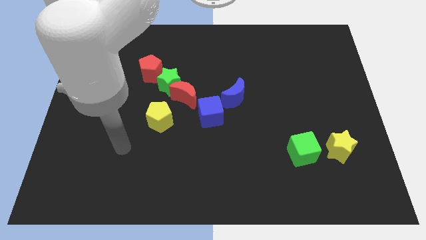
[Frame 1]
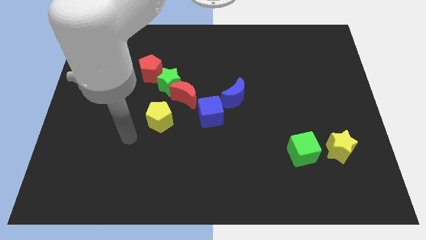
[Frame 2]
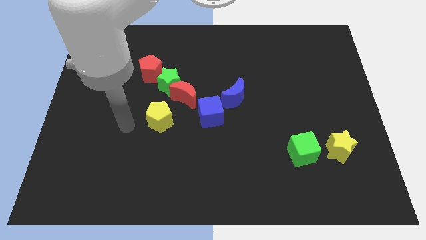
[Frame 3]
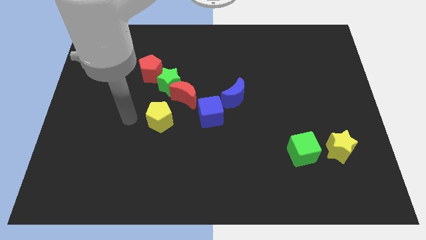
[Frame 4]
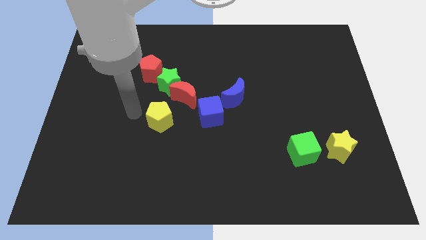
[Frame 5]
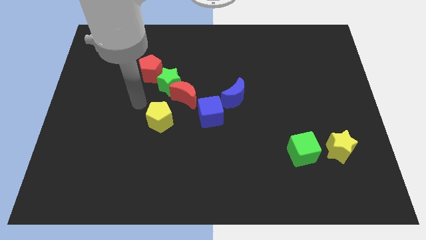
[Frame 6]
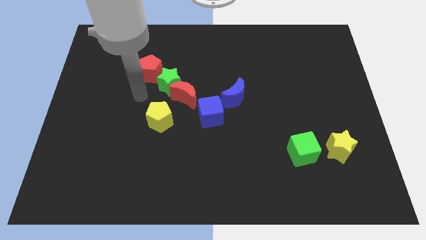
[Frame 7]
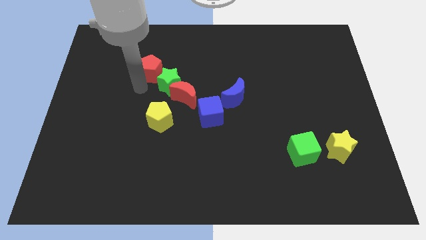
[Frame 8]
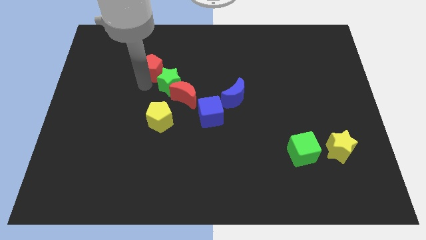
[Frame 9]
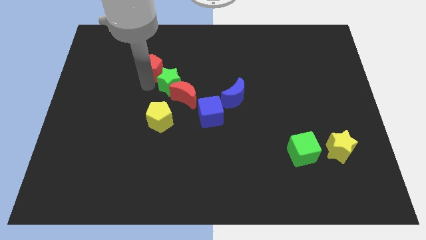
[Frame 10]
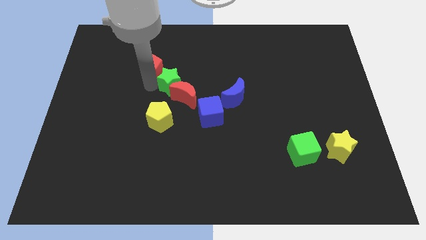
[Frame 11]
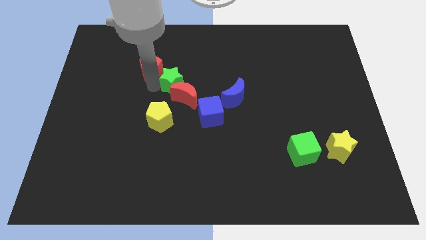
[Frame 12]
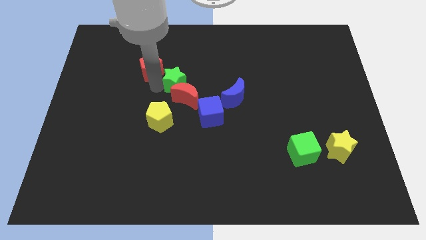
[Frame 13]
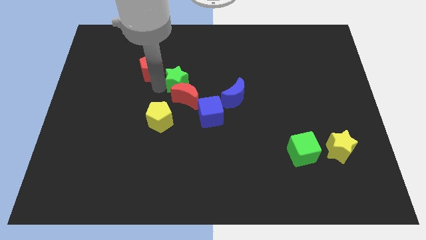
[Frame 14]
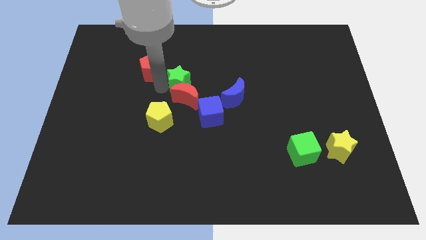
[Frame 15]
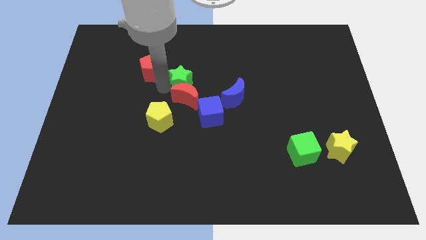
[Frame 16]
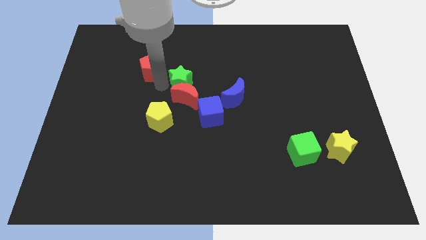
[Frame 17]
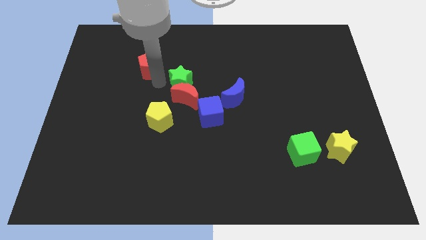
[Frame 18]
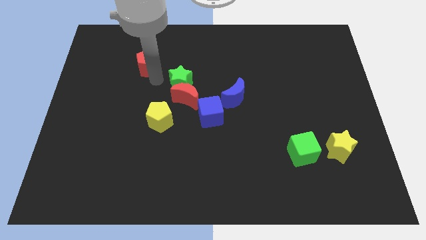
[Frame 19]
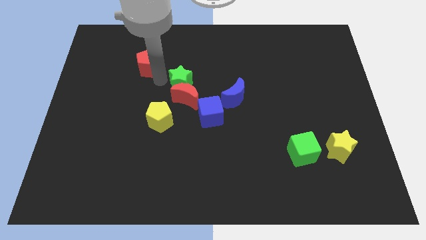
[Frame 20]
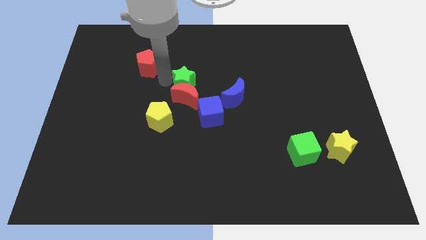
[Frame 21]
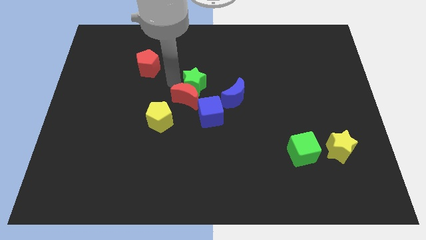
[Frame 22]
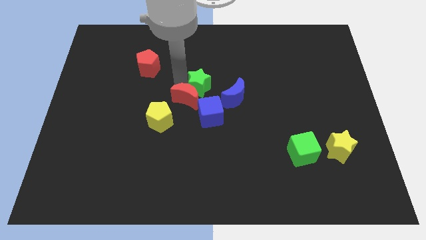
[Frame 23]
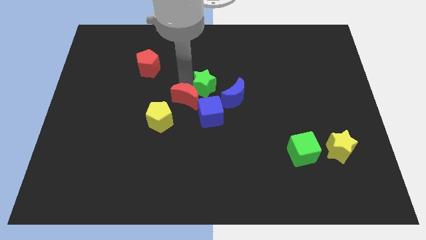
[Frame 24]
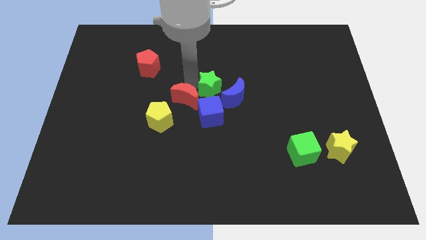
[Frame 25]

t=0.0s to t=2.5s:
pull the green star apart from the red moon and red pentagon

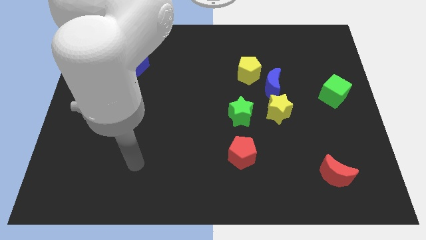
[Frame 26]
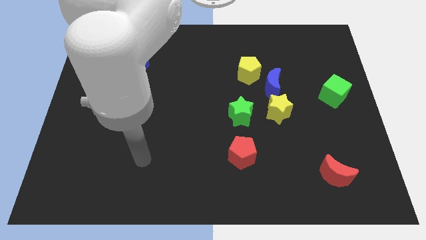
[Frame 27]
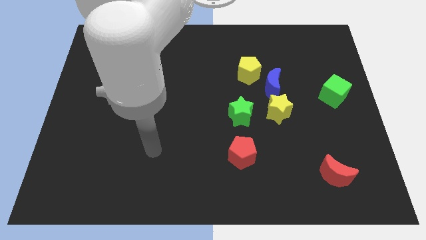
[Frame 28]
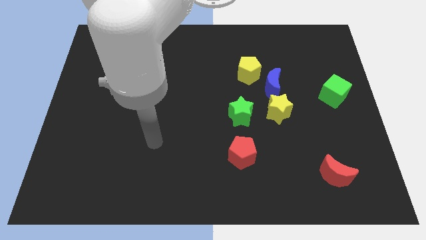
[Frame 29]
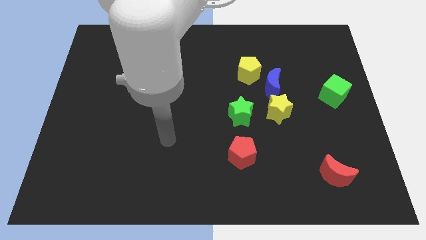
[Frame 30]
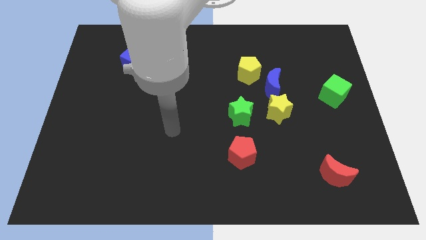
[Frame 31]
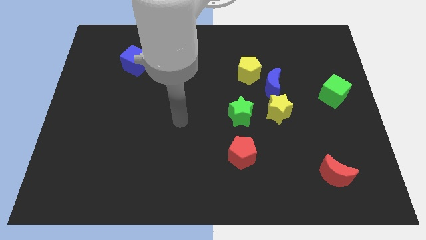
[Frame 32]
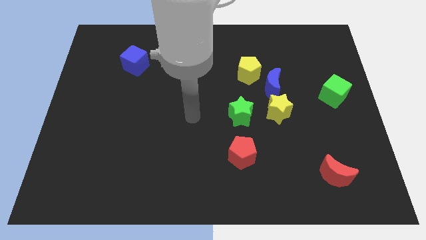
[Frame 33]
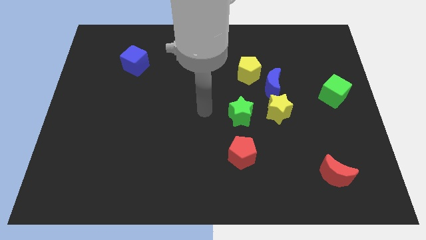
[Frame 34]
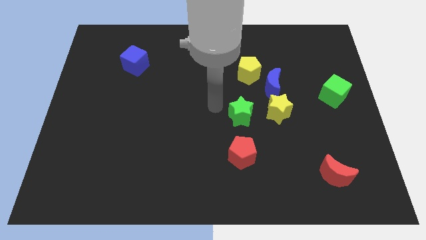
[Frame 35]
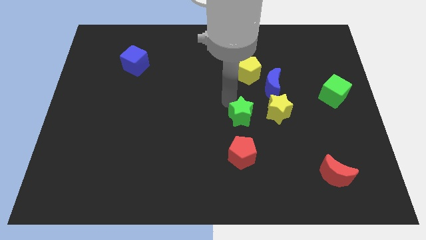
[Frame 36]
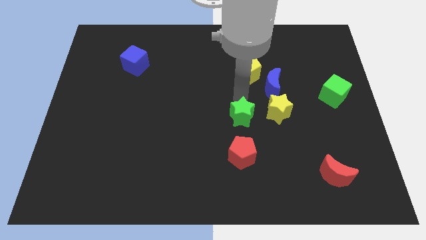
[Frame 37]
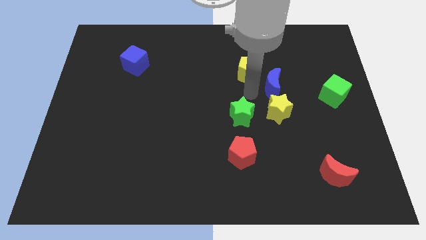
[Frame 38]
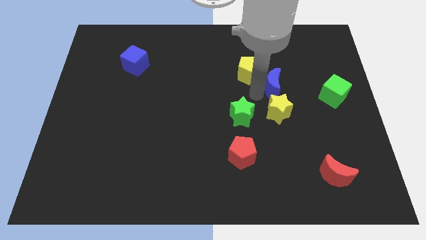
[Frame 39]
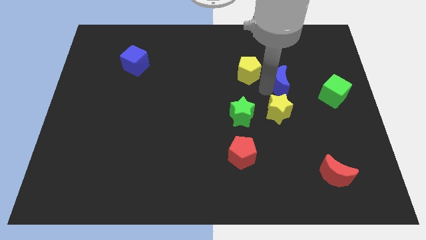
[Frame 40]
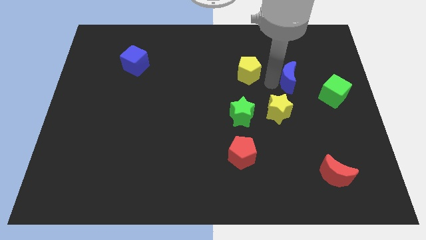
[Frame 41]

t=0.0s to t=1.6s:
separate the yellow pentagon from the blue moon

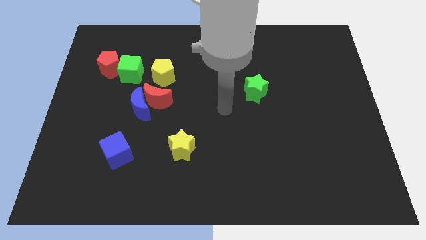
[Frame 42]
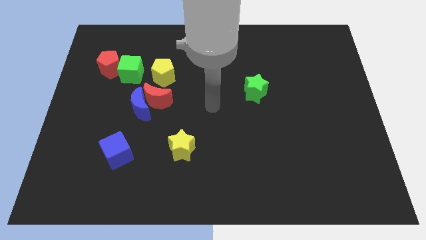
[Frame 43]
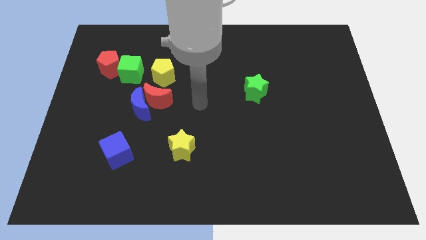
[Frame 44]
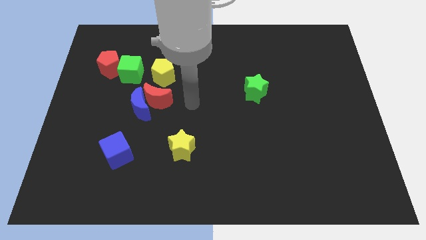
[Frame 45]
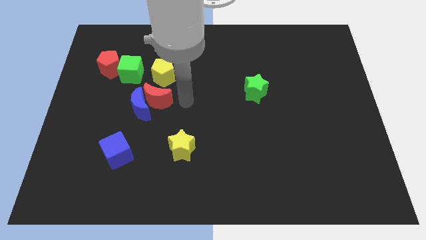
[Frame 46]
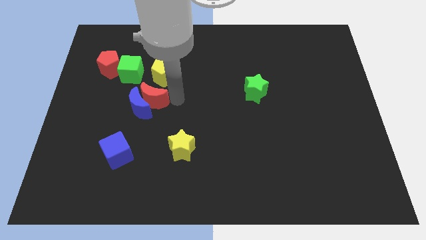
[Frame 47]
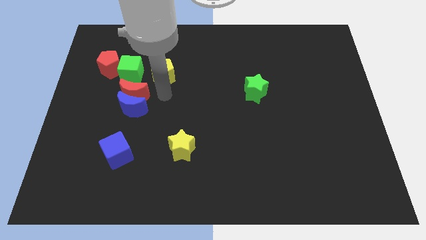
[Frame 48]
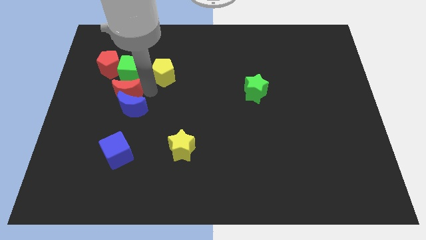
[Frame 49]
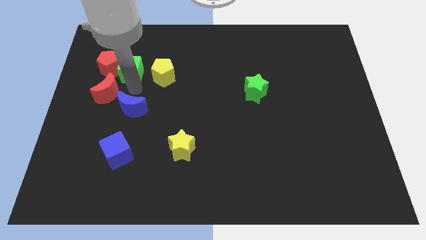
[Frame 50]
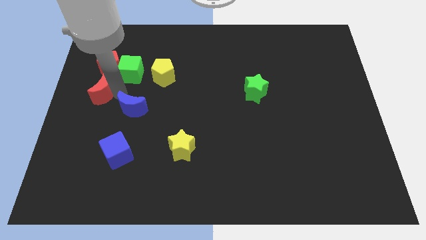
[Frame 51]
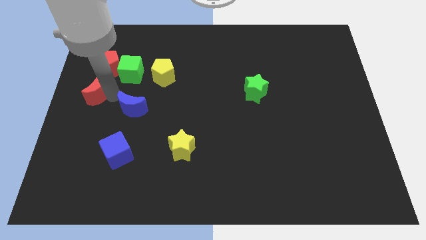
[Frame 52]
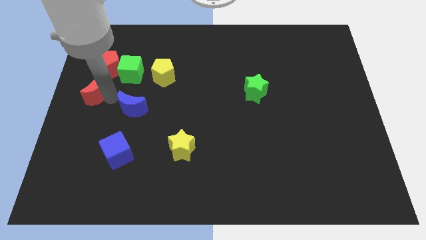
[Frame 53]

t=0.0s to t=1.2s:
move the blue moon away from the red moon

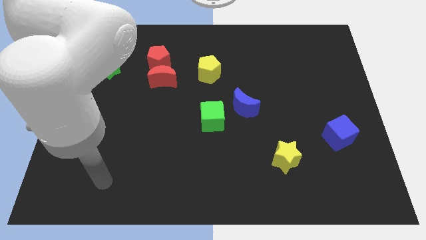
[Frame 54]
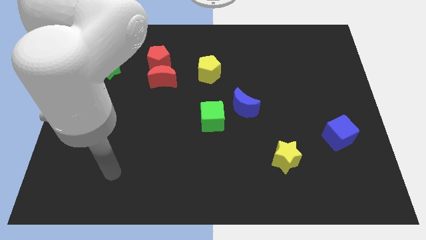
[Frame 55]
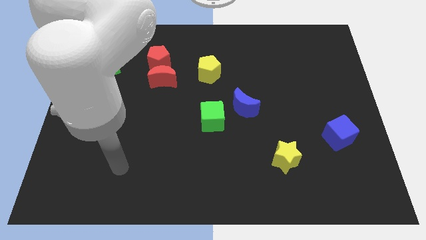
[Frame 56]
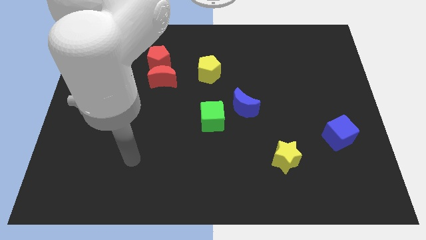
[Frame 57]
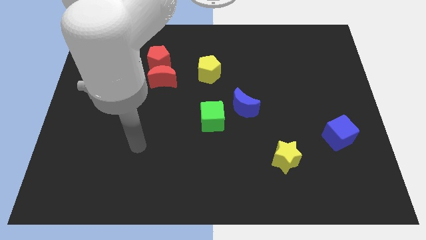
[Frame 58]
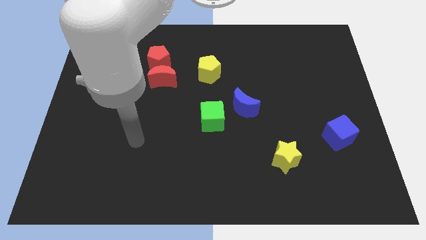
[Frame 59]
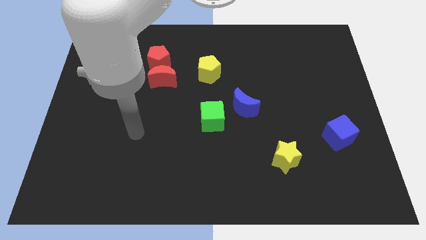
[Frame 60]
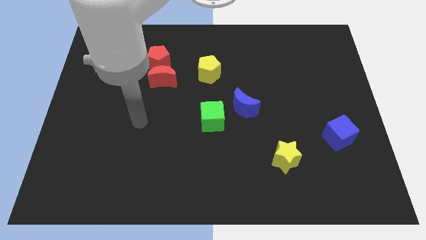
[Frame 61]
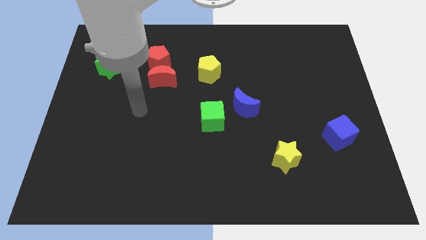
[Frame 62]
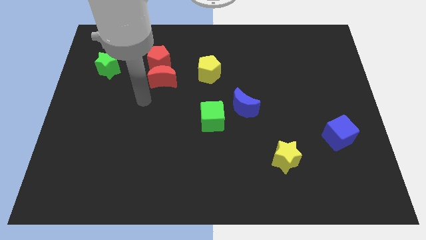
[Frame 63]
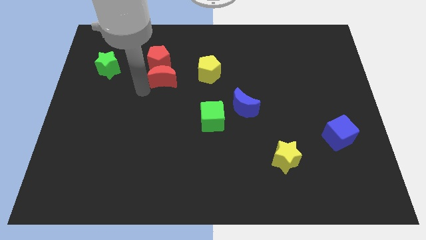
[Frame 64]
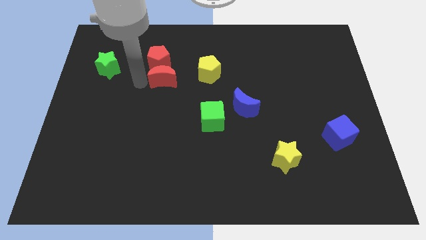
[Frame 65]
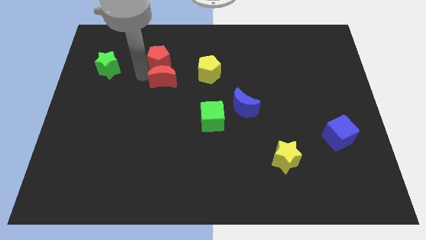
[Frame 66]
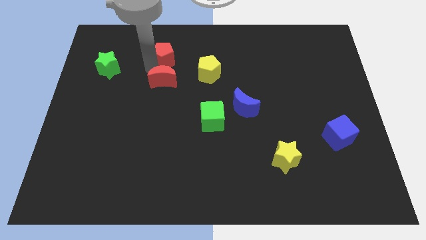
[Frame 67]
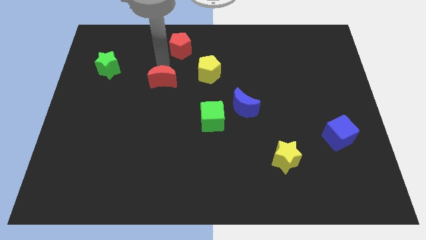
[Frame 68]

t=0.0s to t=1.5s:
separate the red moon from the red pentagon

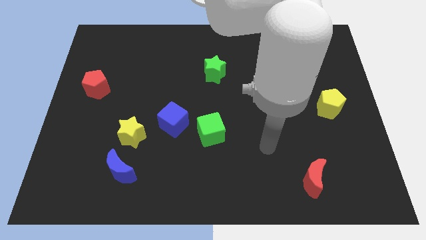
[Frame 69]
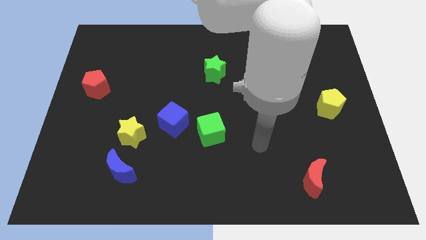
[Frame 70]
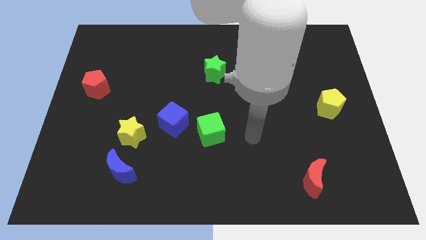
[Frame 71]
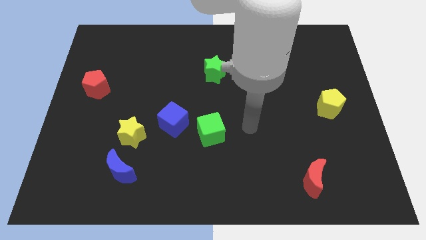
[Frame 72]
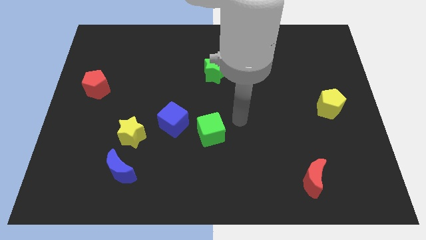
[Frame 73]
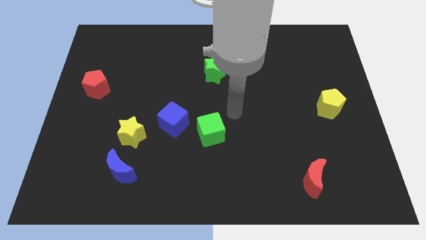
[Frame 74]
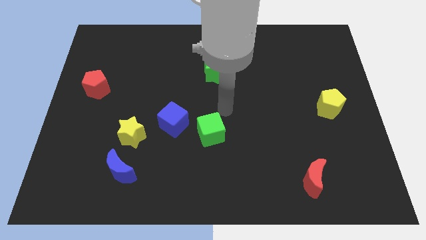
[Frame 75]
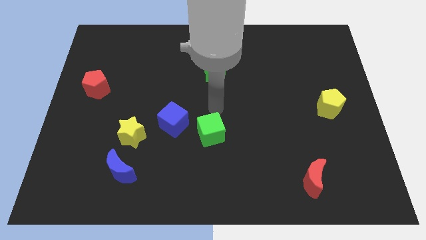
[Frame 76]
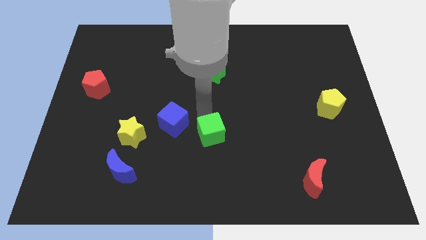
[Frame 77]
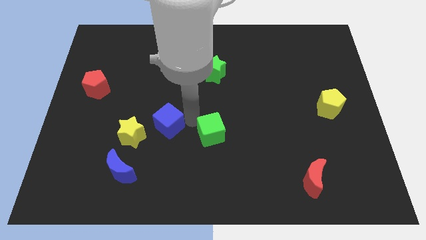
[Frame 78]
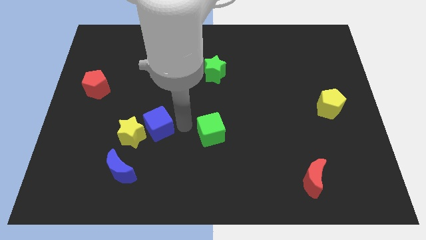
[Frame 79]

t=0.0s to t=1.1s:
move the green cube away from the blue cube

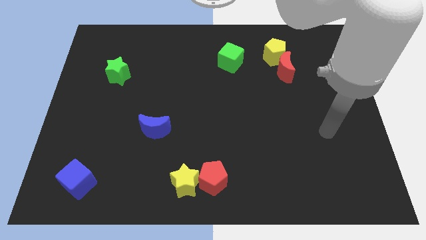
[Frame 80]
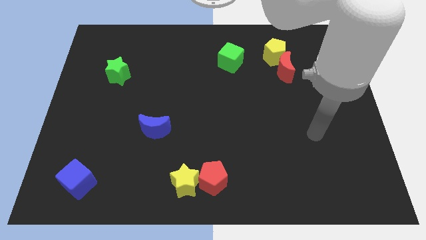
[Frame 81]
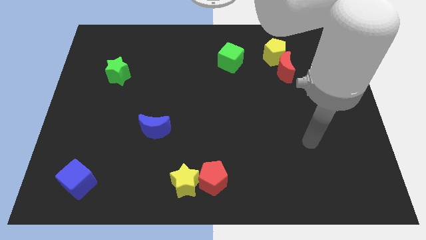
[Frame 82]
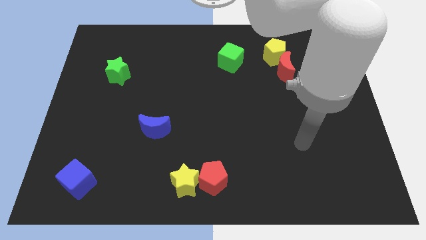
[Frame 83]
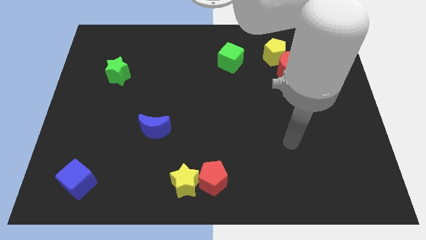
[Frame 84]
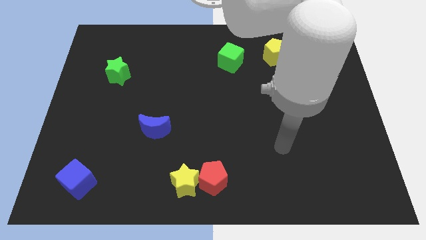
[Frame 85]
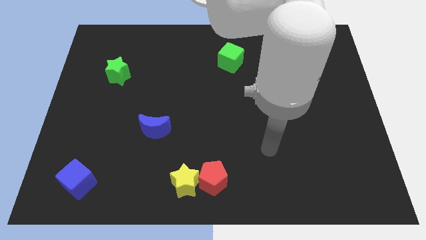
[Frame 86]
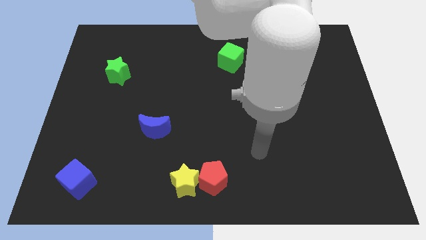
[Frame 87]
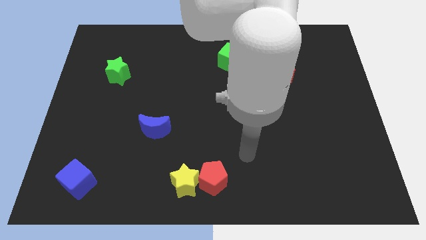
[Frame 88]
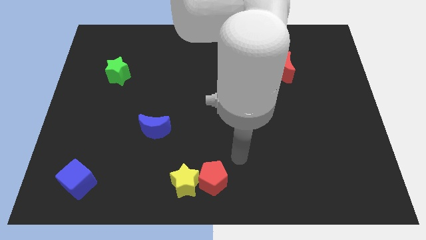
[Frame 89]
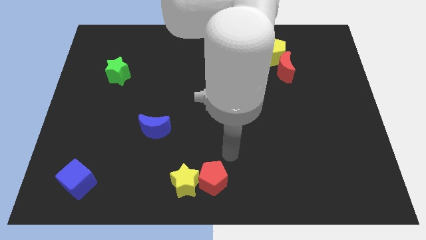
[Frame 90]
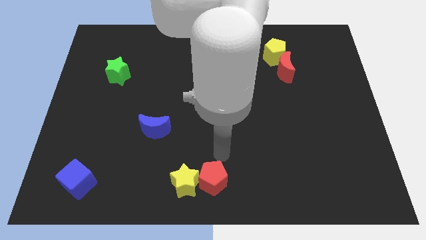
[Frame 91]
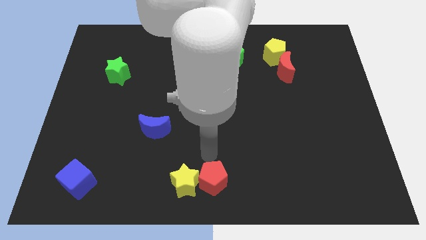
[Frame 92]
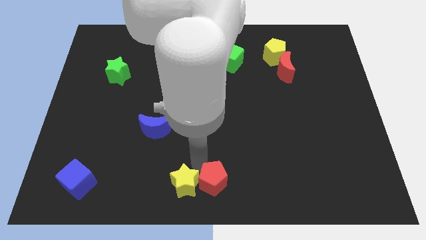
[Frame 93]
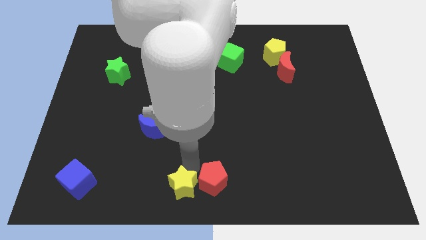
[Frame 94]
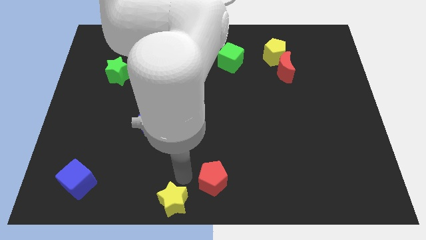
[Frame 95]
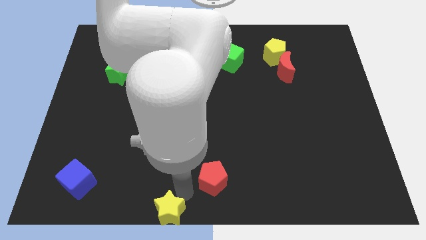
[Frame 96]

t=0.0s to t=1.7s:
move the red pentagon away from the yellow star
